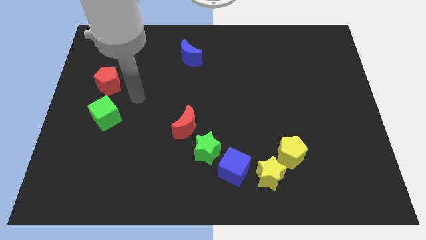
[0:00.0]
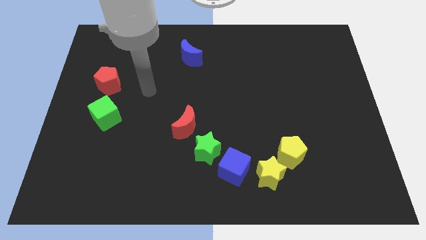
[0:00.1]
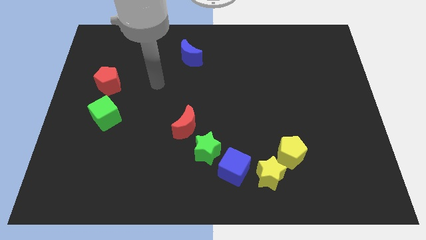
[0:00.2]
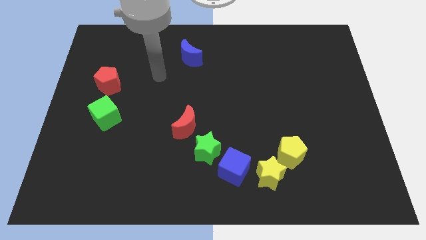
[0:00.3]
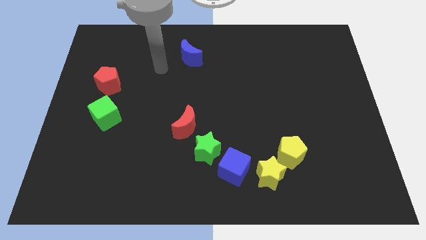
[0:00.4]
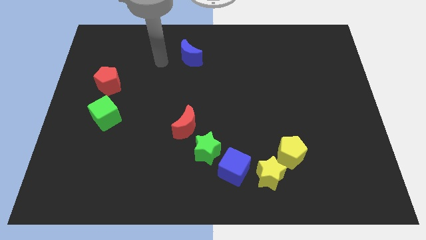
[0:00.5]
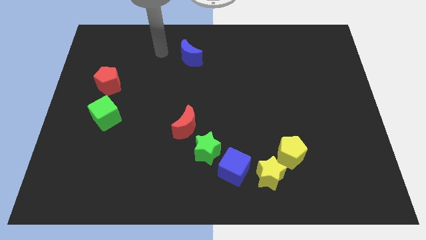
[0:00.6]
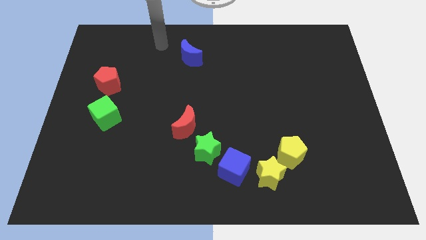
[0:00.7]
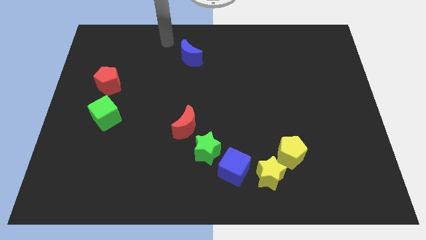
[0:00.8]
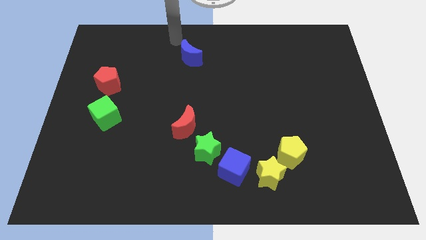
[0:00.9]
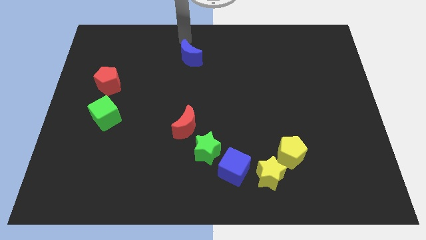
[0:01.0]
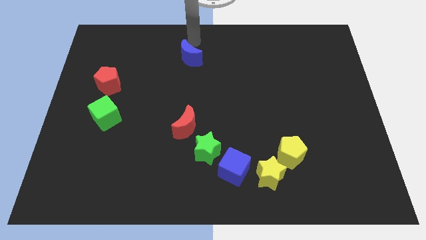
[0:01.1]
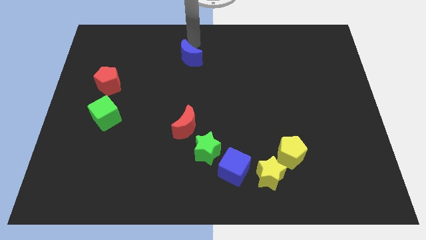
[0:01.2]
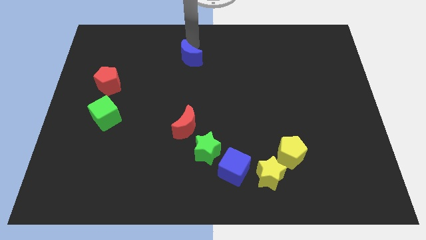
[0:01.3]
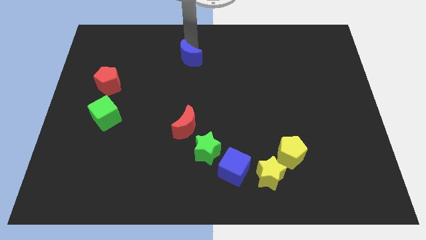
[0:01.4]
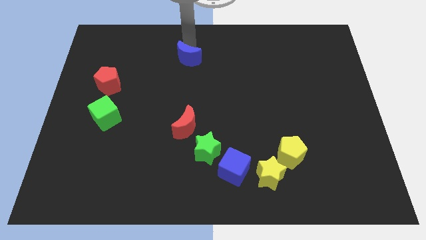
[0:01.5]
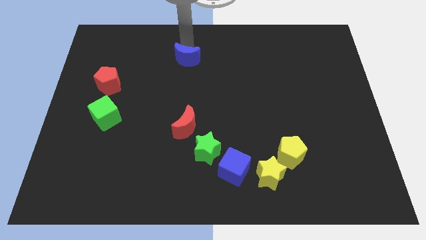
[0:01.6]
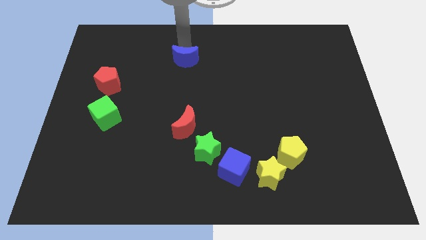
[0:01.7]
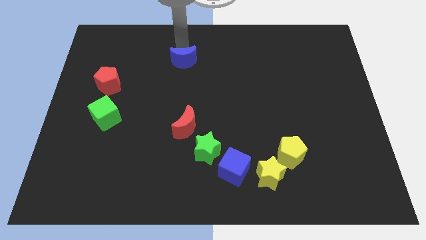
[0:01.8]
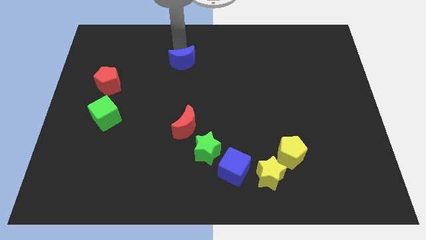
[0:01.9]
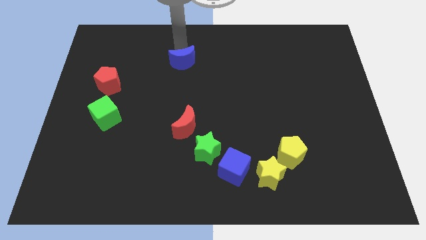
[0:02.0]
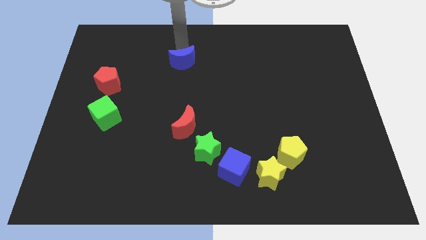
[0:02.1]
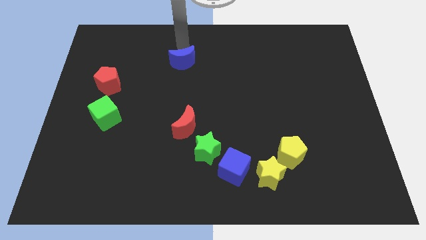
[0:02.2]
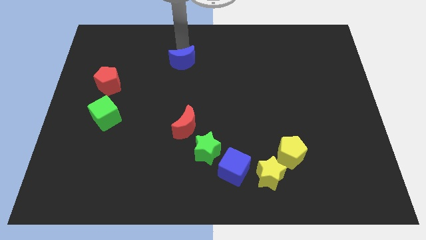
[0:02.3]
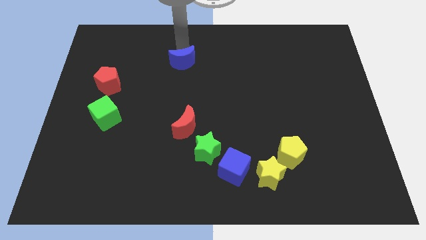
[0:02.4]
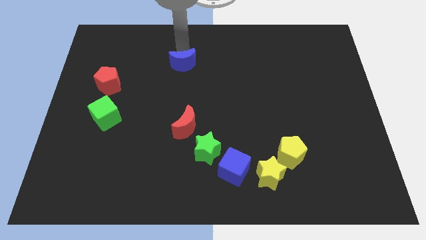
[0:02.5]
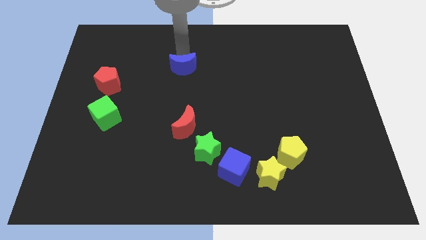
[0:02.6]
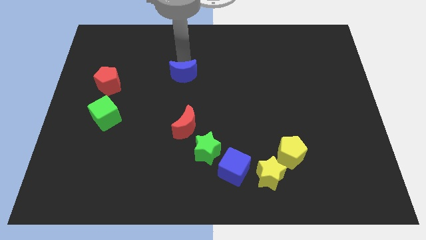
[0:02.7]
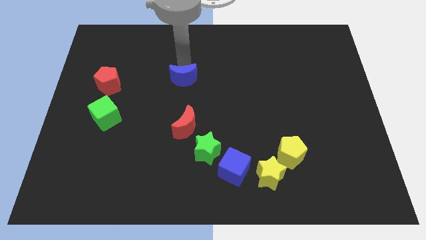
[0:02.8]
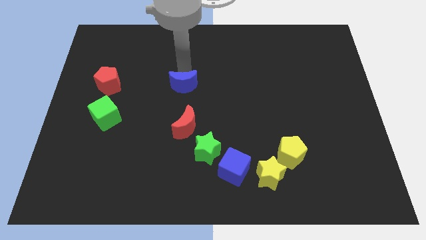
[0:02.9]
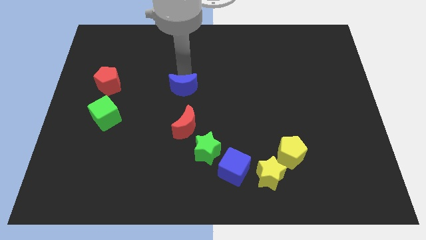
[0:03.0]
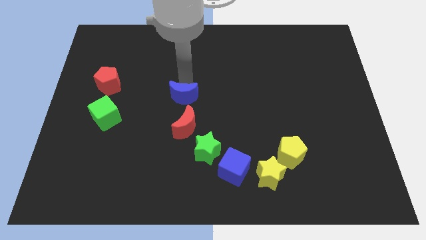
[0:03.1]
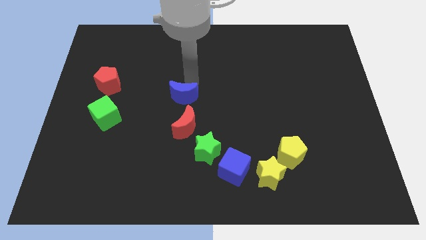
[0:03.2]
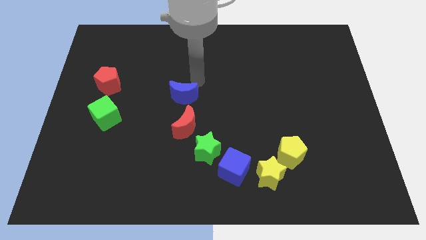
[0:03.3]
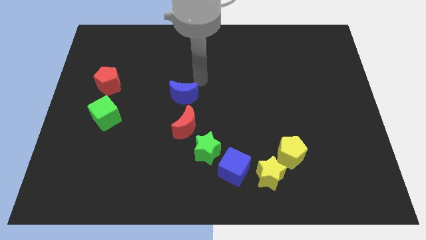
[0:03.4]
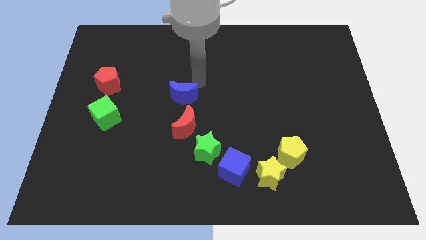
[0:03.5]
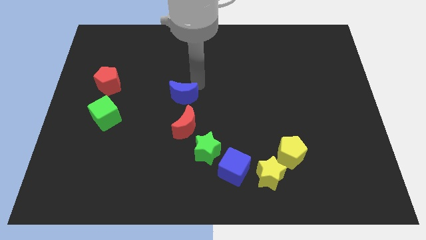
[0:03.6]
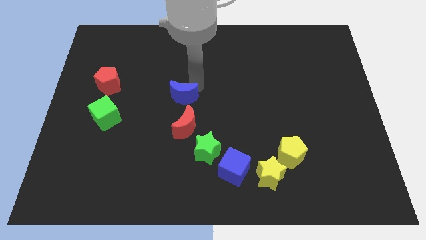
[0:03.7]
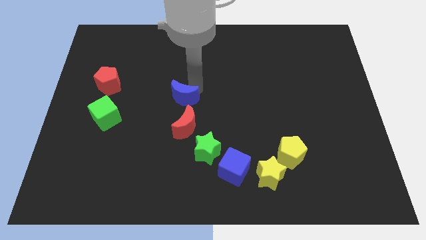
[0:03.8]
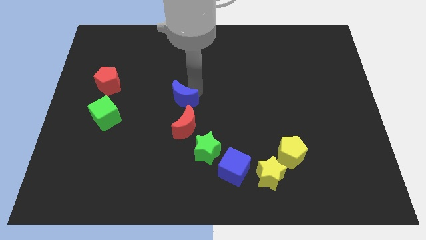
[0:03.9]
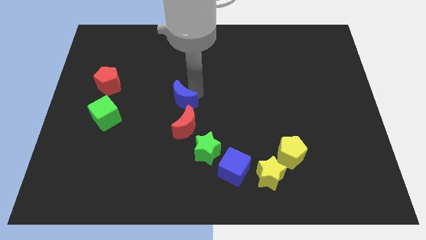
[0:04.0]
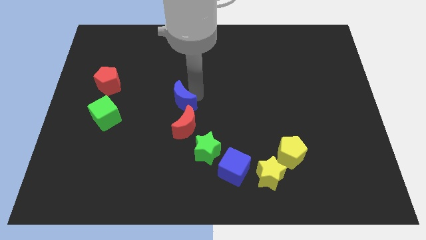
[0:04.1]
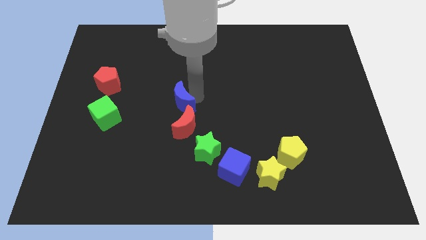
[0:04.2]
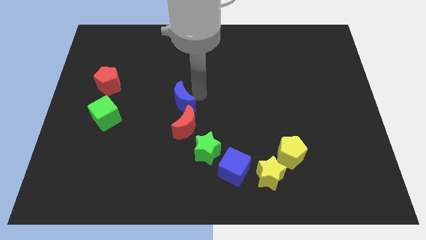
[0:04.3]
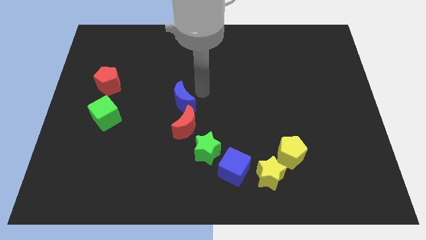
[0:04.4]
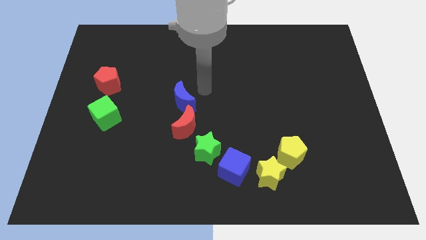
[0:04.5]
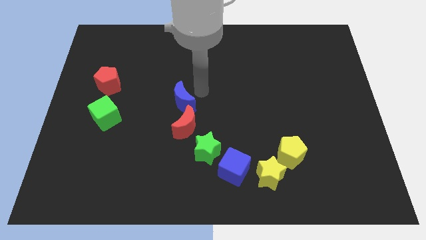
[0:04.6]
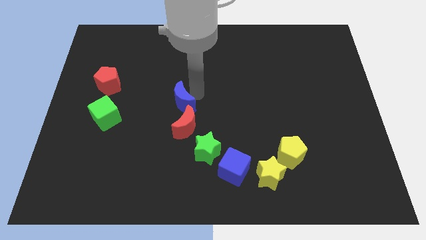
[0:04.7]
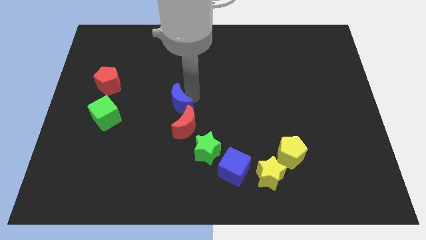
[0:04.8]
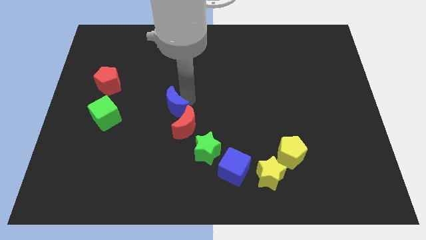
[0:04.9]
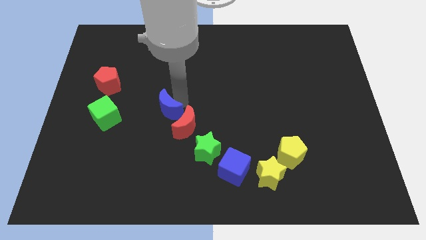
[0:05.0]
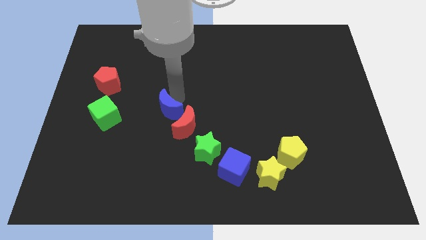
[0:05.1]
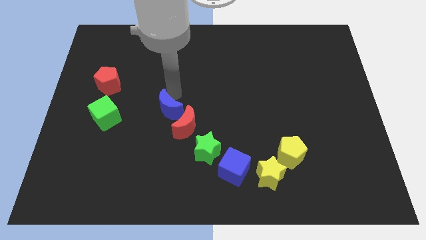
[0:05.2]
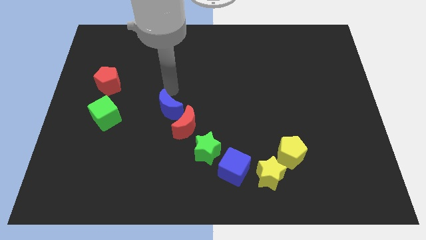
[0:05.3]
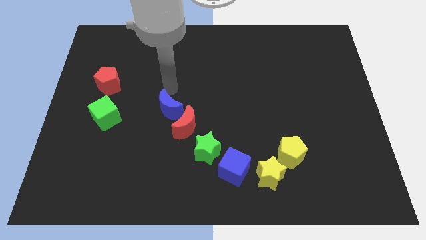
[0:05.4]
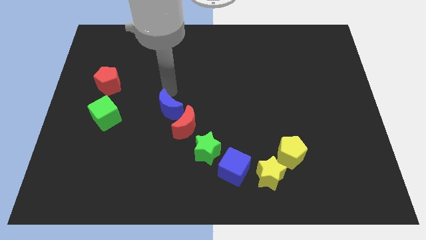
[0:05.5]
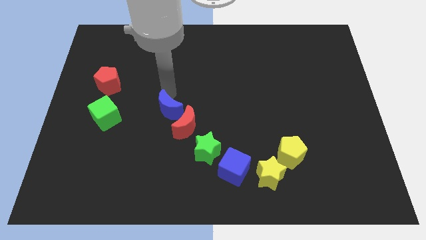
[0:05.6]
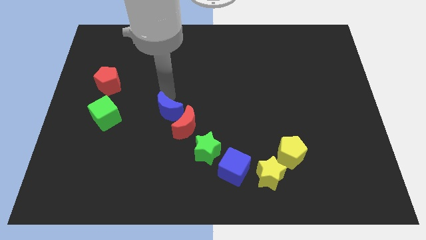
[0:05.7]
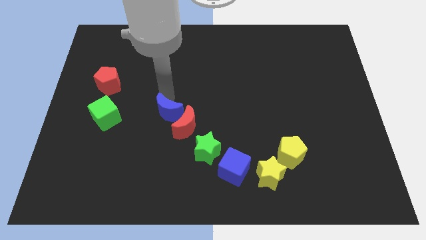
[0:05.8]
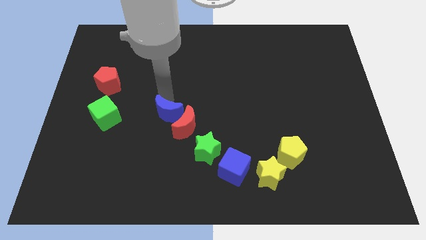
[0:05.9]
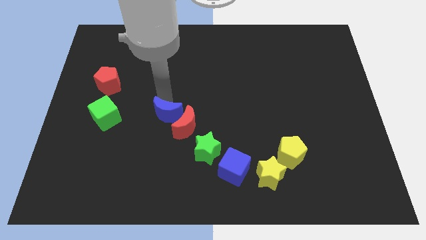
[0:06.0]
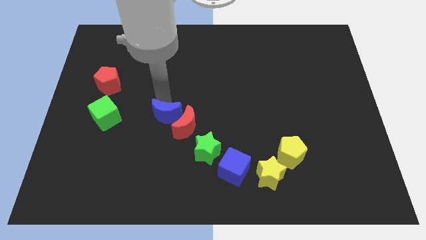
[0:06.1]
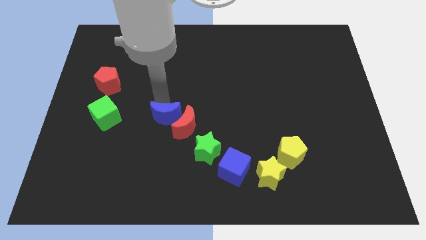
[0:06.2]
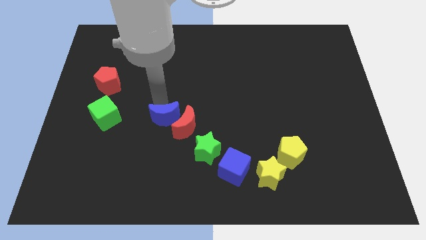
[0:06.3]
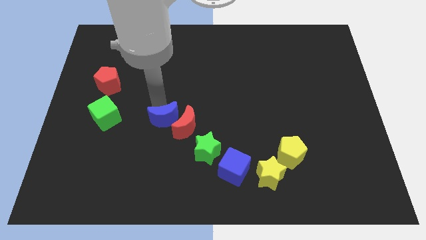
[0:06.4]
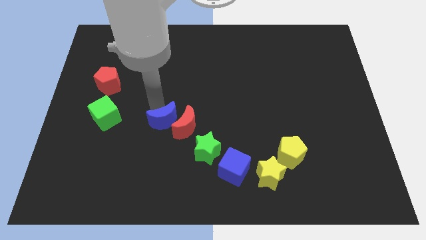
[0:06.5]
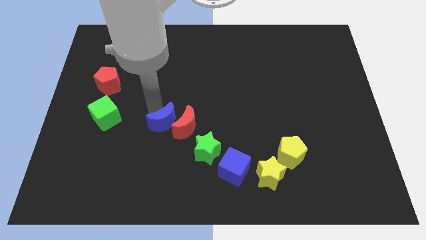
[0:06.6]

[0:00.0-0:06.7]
push the blue moon downwards

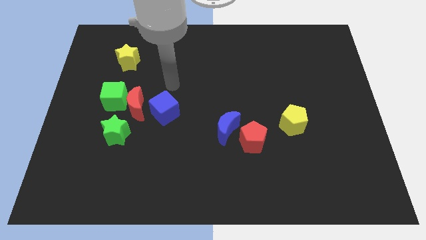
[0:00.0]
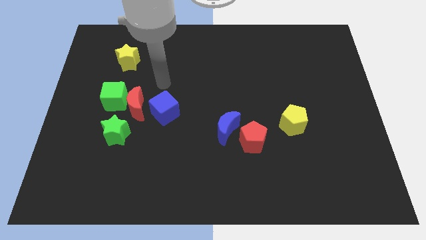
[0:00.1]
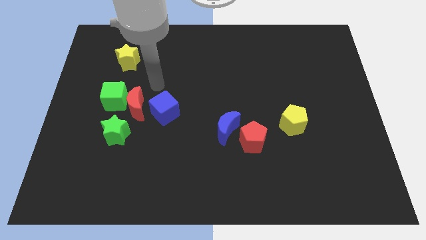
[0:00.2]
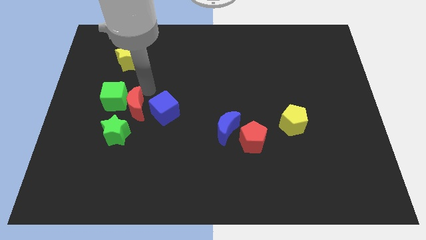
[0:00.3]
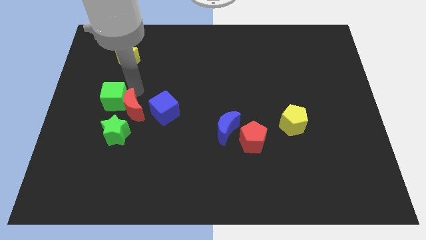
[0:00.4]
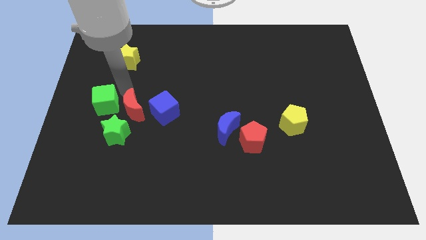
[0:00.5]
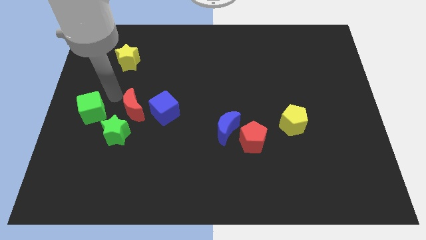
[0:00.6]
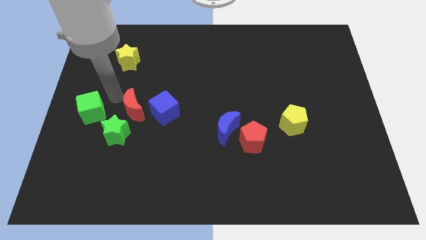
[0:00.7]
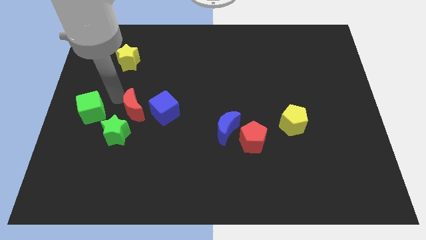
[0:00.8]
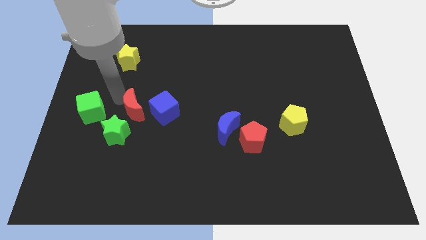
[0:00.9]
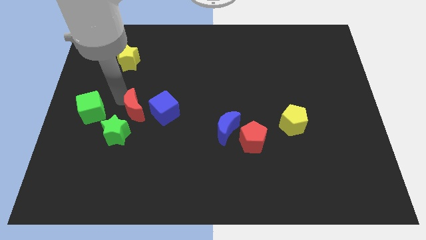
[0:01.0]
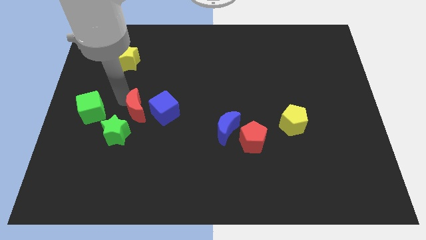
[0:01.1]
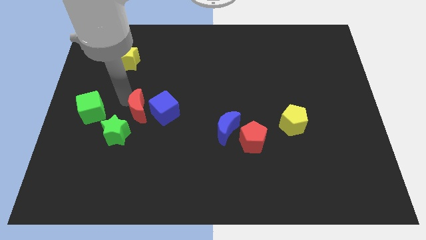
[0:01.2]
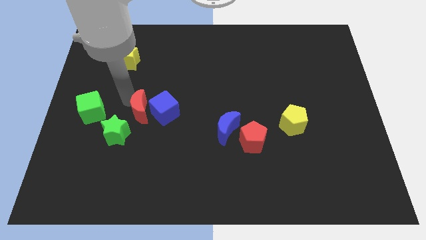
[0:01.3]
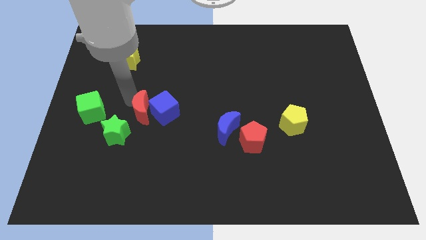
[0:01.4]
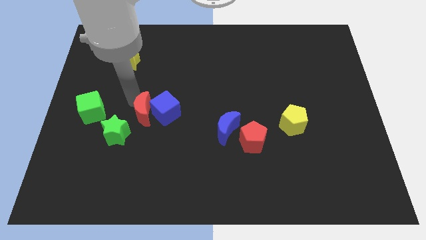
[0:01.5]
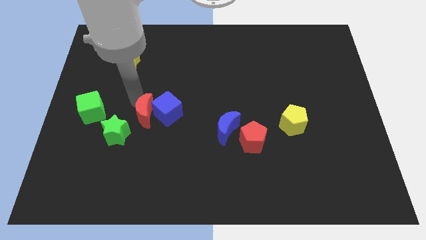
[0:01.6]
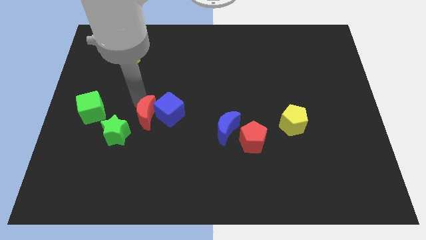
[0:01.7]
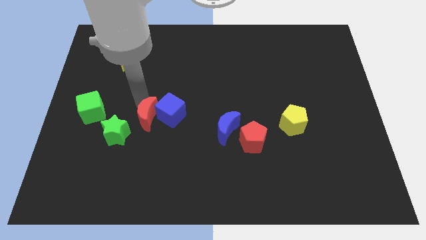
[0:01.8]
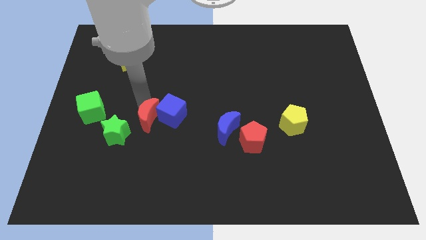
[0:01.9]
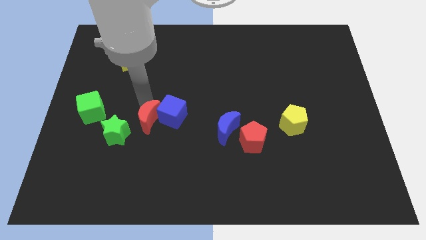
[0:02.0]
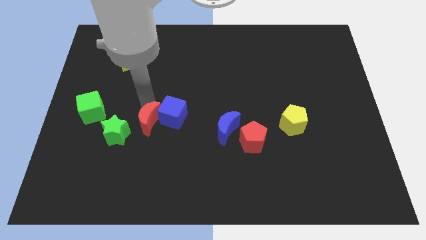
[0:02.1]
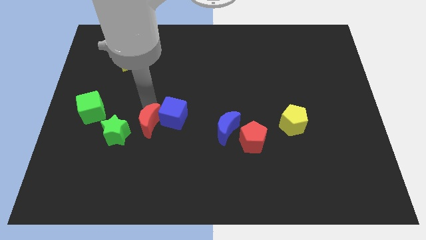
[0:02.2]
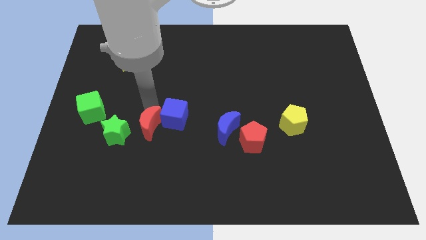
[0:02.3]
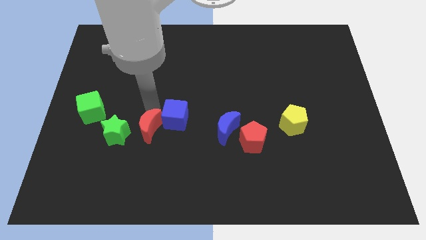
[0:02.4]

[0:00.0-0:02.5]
slide the red moon somewhat down and to the right diagonally
